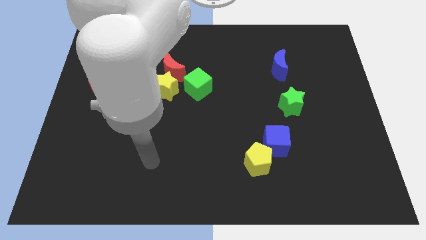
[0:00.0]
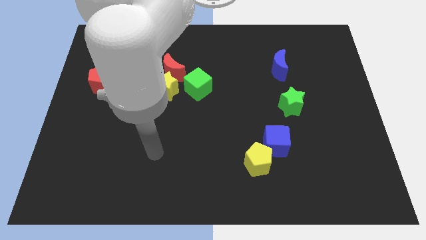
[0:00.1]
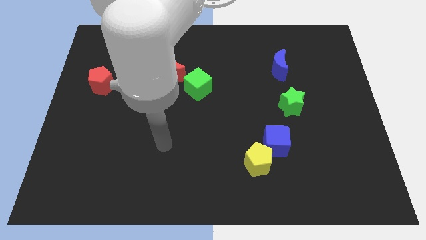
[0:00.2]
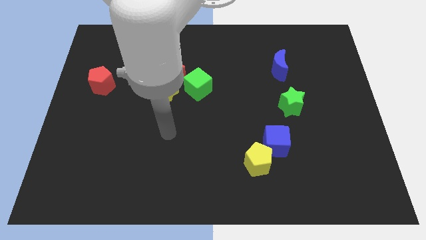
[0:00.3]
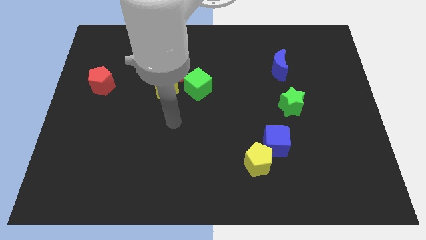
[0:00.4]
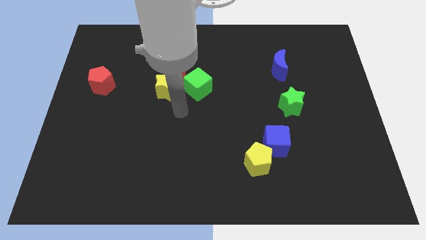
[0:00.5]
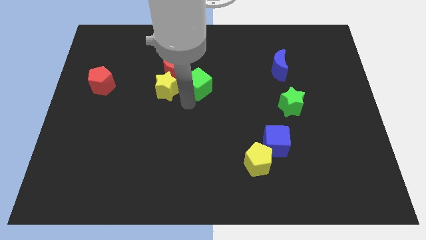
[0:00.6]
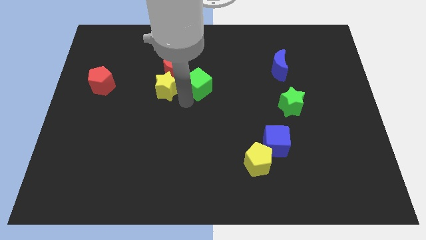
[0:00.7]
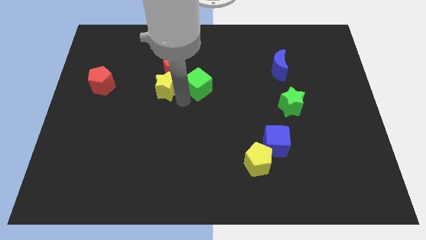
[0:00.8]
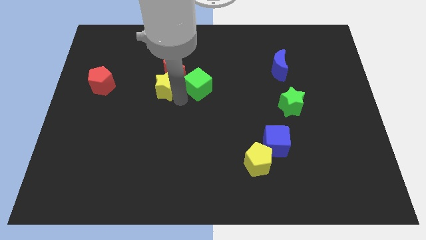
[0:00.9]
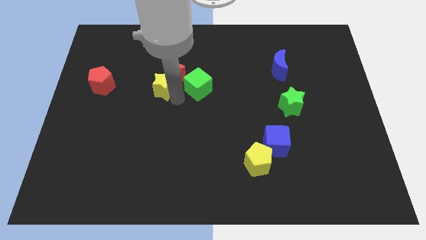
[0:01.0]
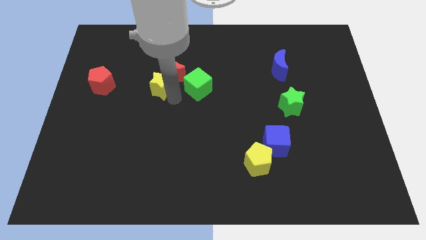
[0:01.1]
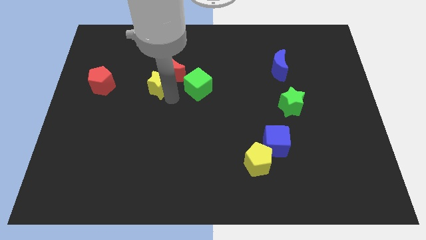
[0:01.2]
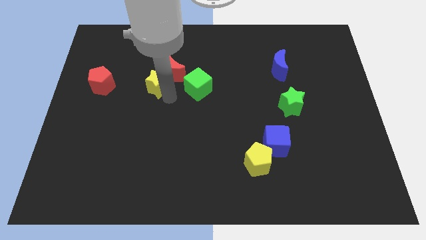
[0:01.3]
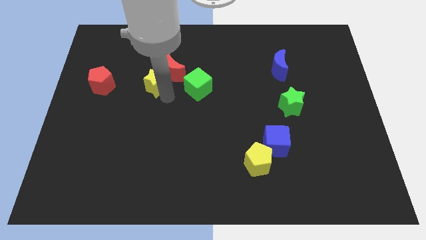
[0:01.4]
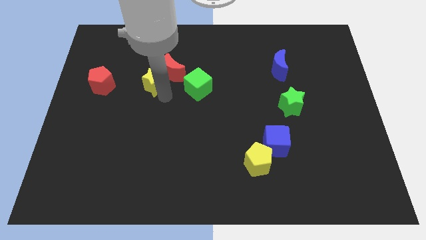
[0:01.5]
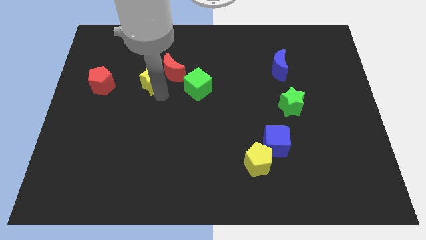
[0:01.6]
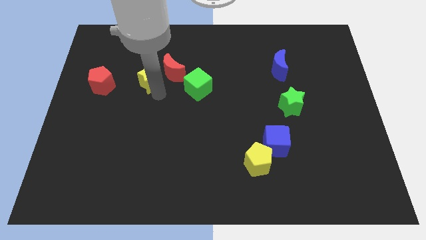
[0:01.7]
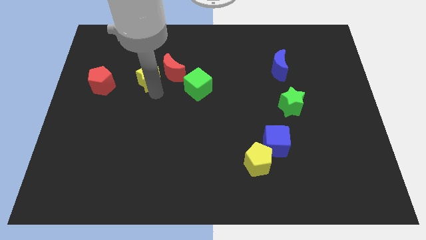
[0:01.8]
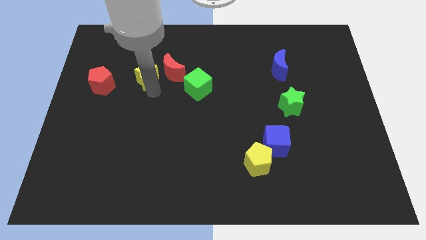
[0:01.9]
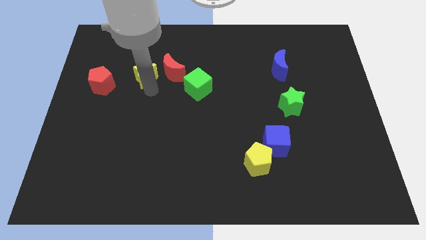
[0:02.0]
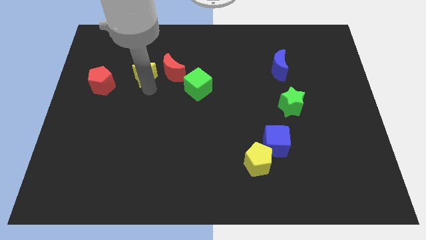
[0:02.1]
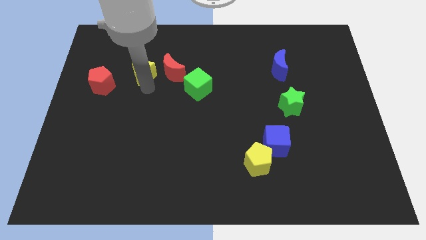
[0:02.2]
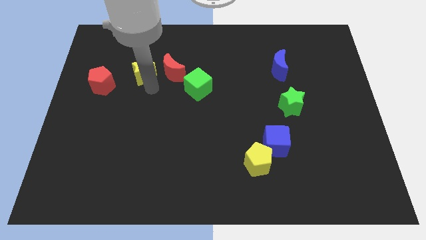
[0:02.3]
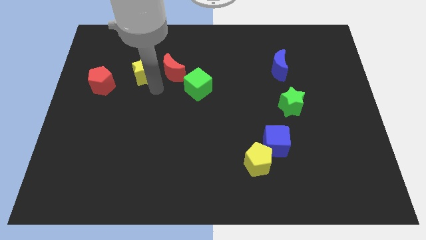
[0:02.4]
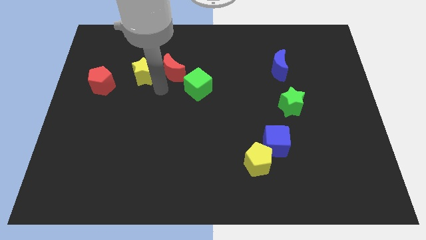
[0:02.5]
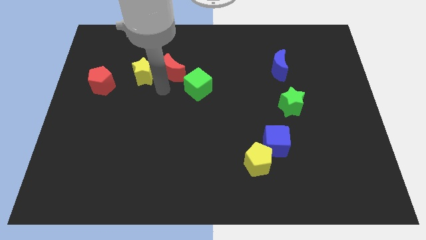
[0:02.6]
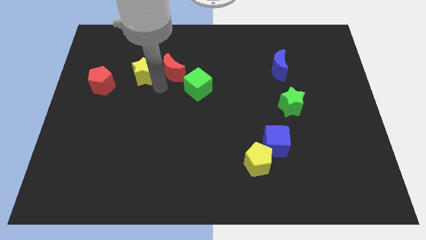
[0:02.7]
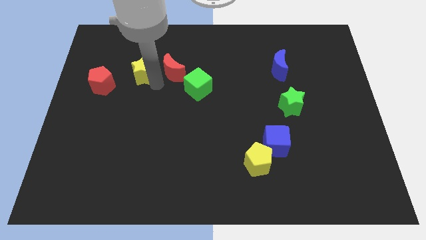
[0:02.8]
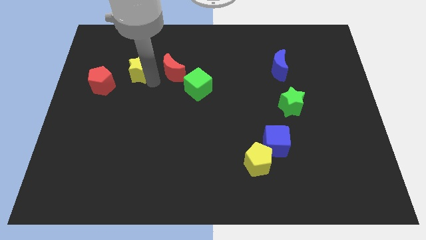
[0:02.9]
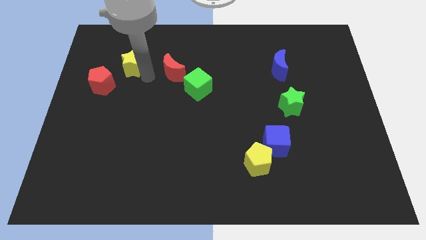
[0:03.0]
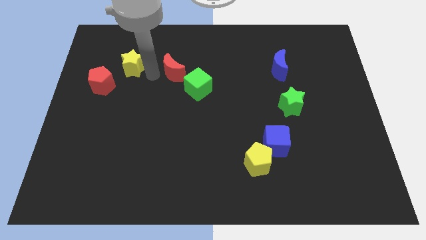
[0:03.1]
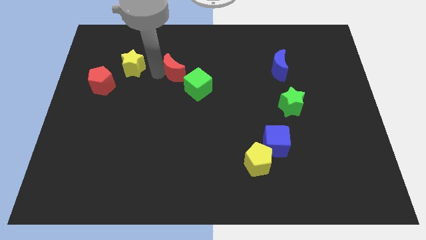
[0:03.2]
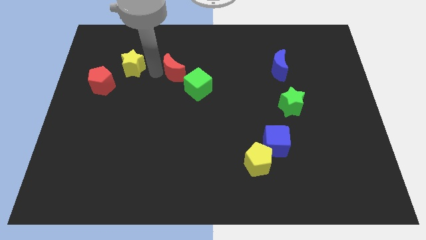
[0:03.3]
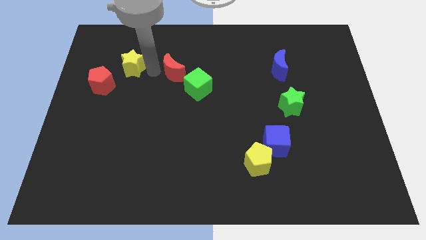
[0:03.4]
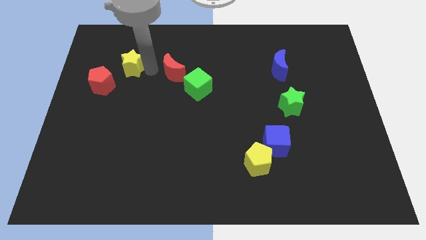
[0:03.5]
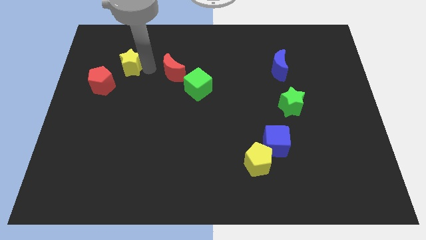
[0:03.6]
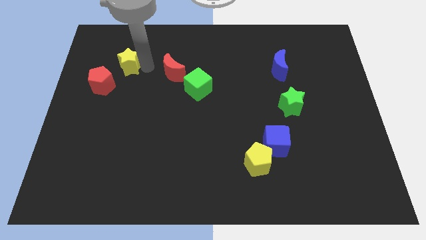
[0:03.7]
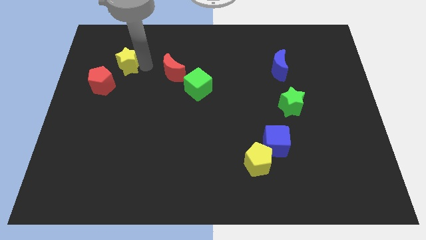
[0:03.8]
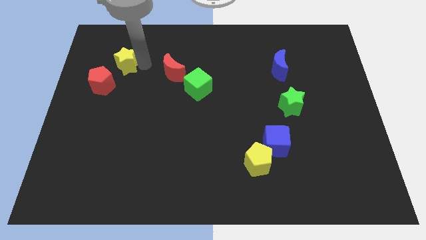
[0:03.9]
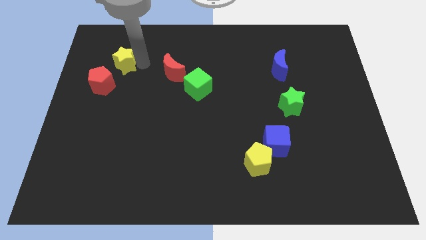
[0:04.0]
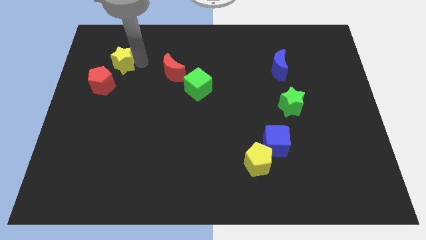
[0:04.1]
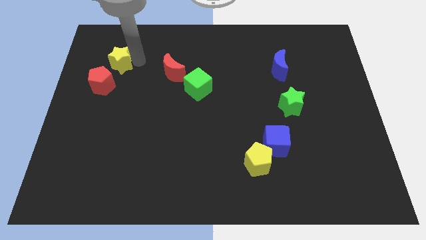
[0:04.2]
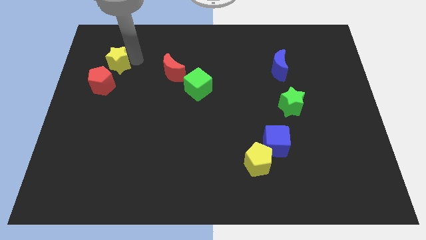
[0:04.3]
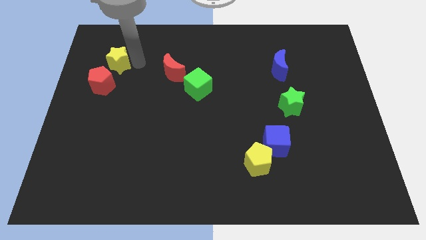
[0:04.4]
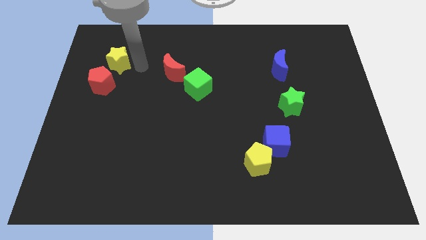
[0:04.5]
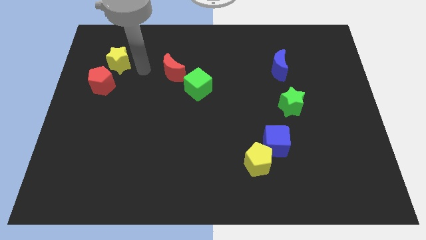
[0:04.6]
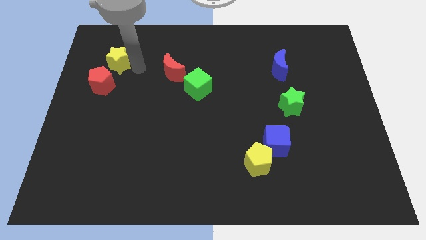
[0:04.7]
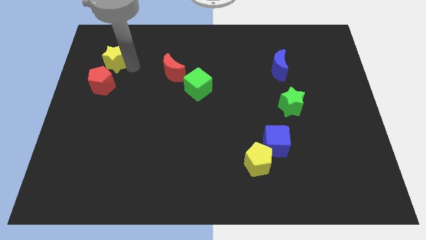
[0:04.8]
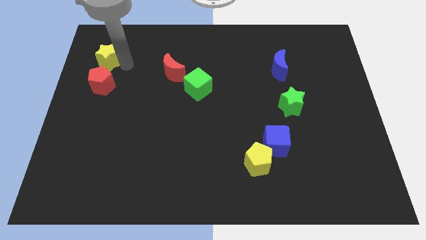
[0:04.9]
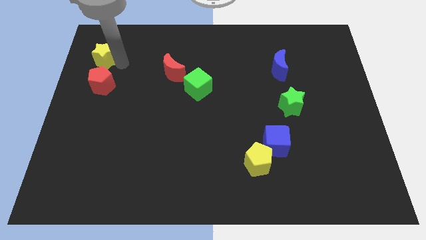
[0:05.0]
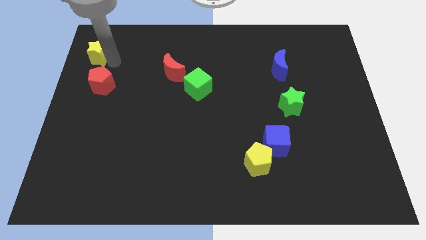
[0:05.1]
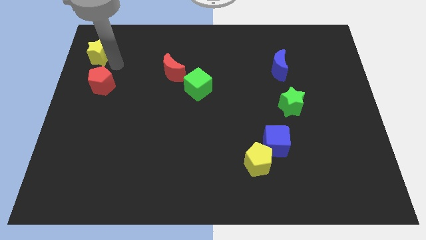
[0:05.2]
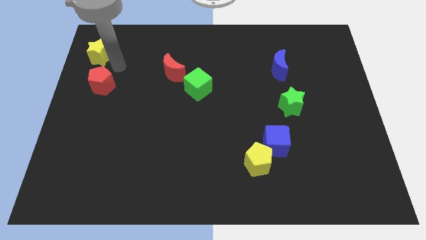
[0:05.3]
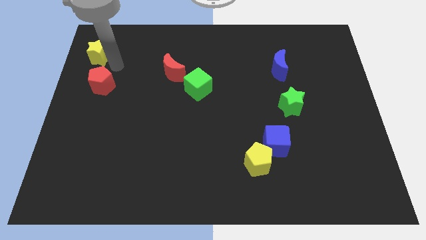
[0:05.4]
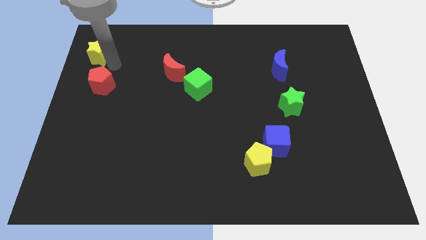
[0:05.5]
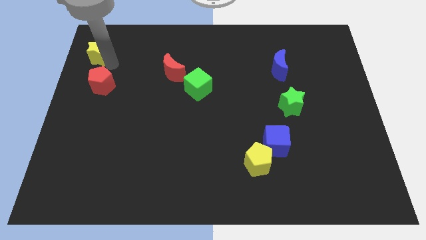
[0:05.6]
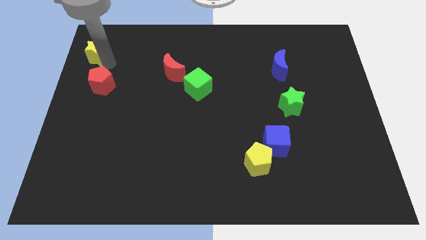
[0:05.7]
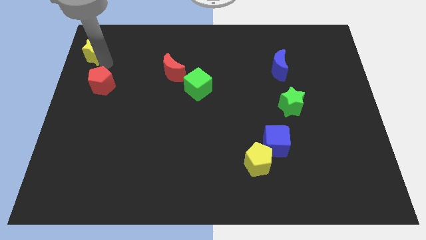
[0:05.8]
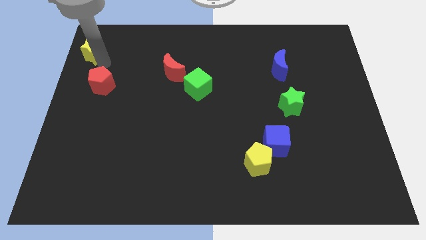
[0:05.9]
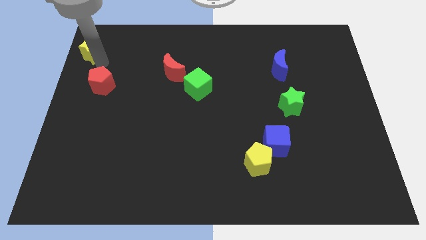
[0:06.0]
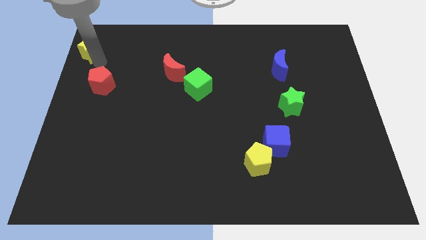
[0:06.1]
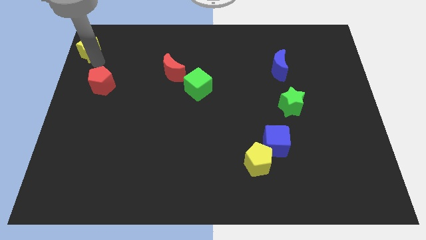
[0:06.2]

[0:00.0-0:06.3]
slide the yellow star to the top left
